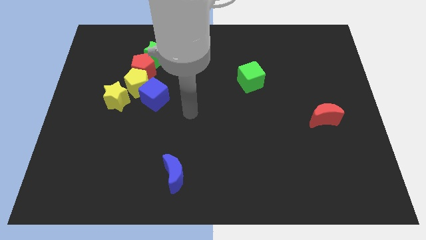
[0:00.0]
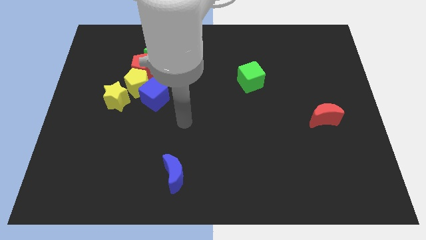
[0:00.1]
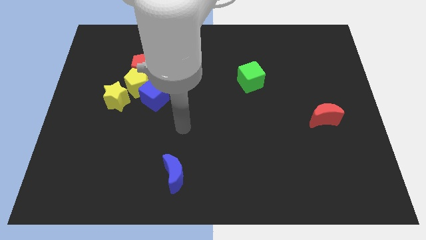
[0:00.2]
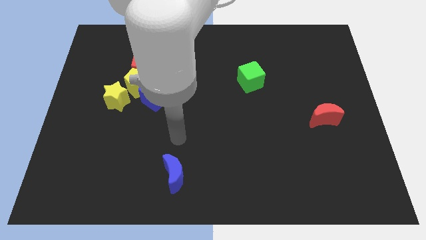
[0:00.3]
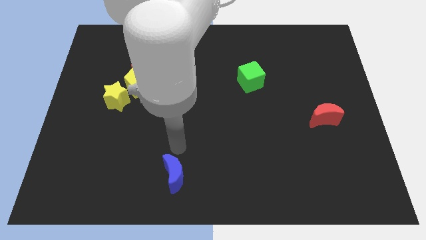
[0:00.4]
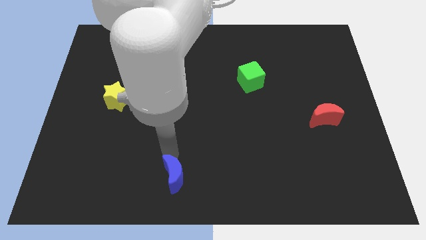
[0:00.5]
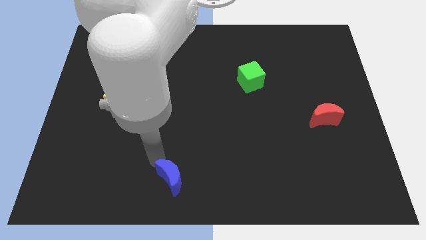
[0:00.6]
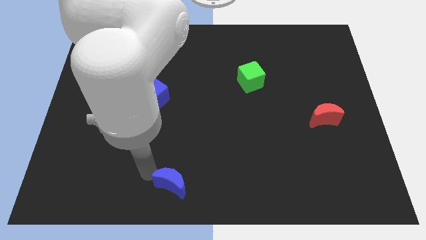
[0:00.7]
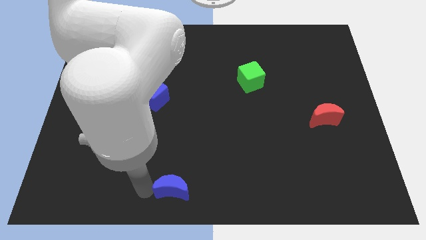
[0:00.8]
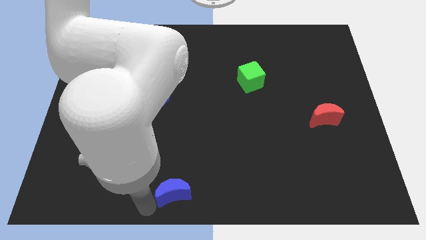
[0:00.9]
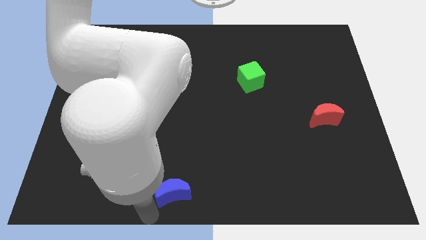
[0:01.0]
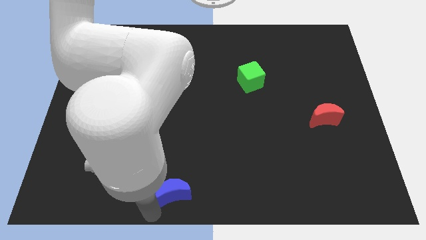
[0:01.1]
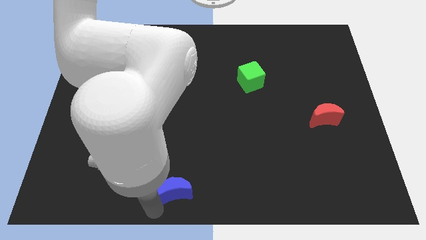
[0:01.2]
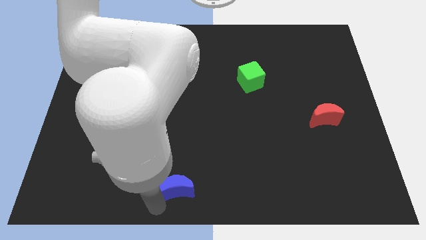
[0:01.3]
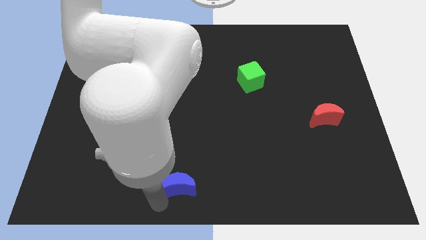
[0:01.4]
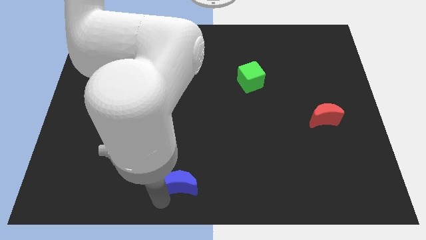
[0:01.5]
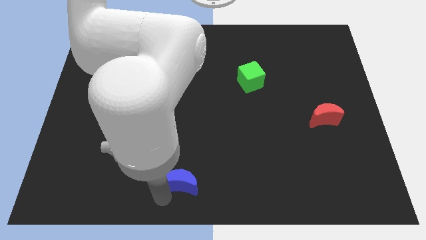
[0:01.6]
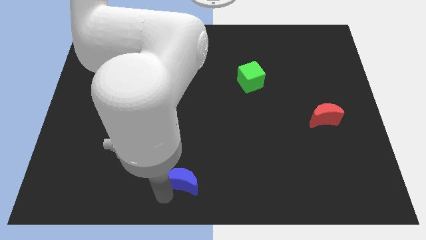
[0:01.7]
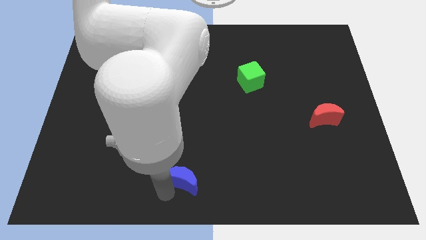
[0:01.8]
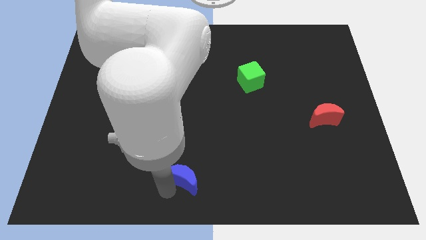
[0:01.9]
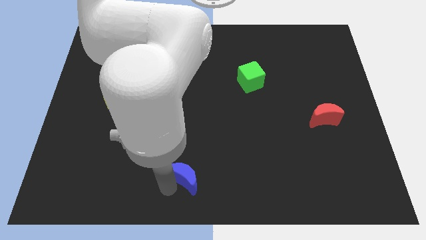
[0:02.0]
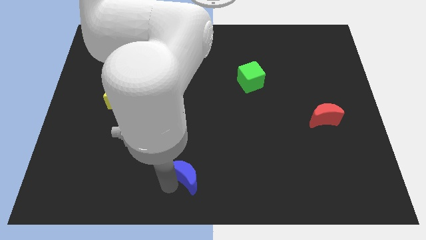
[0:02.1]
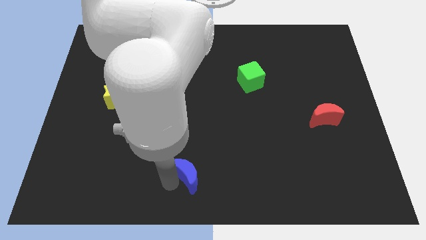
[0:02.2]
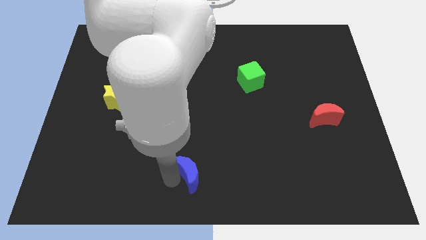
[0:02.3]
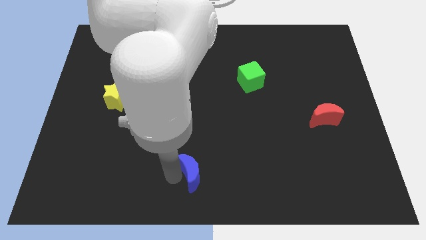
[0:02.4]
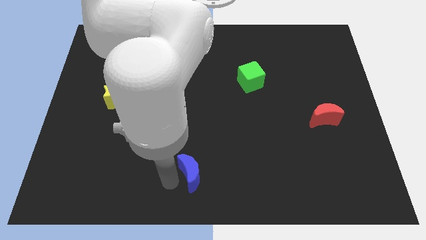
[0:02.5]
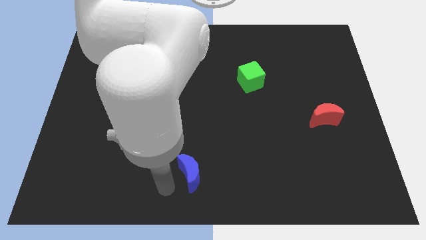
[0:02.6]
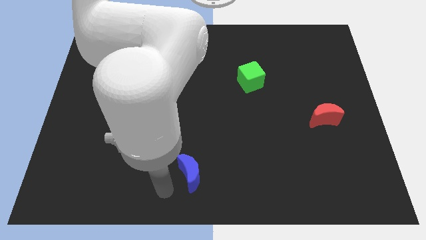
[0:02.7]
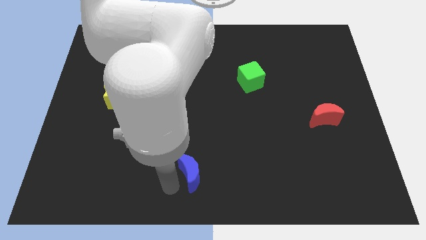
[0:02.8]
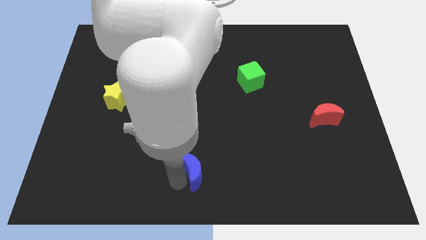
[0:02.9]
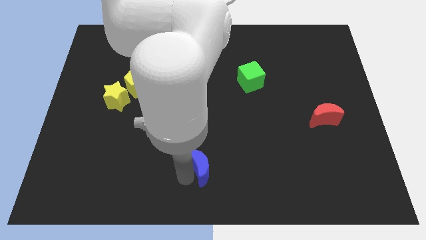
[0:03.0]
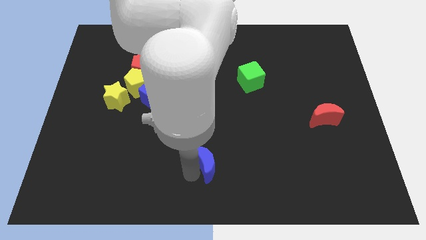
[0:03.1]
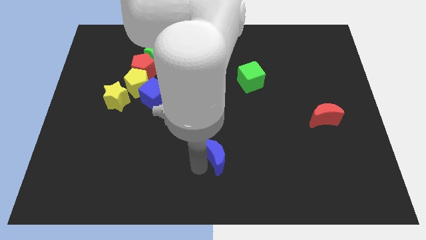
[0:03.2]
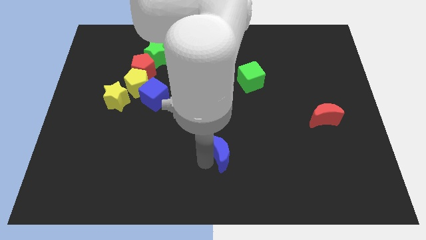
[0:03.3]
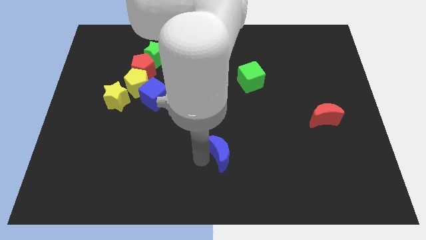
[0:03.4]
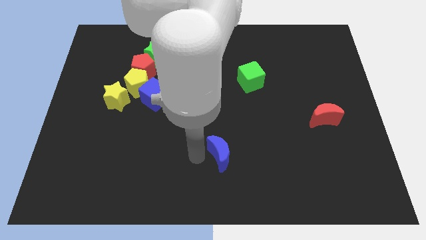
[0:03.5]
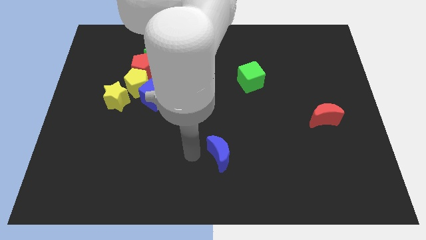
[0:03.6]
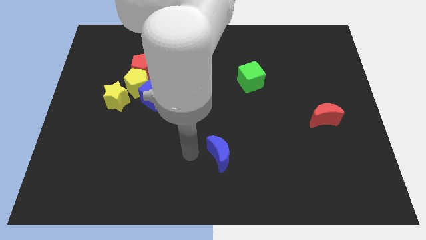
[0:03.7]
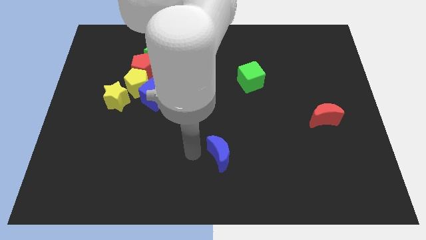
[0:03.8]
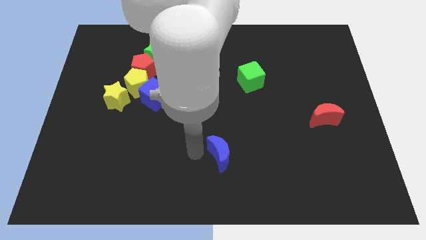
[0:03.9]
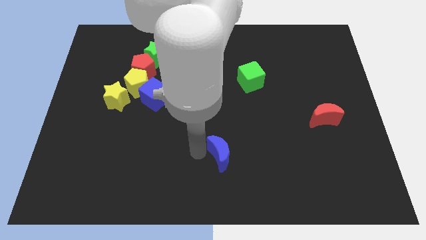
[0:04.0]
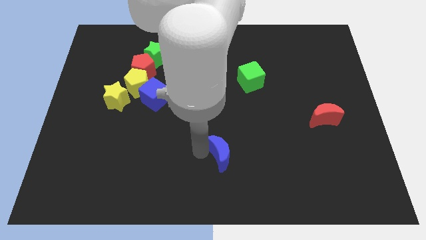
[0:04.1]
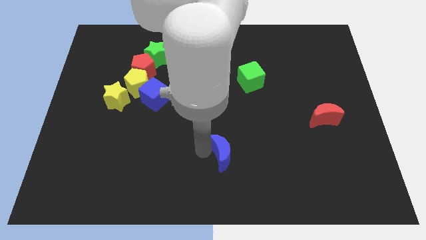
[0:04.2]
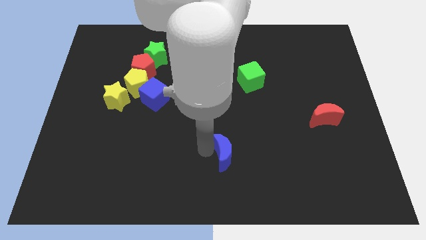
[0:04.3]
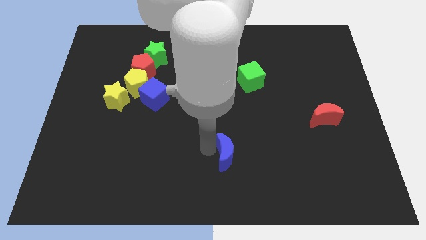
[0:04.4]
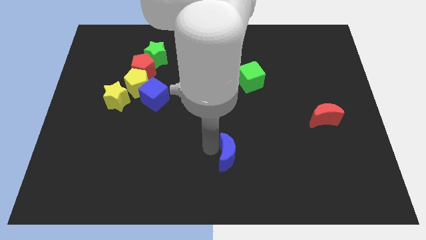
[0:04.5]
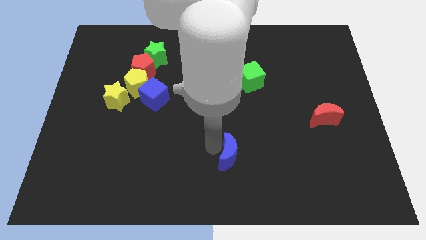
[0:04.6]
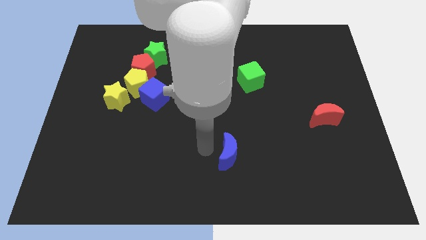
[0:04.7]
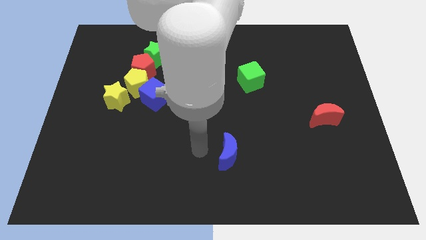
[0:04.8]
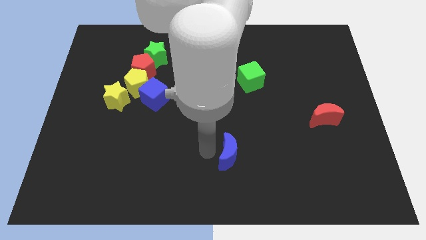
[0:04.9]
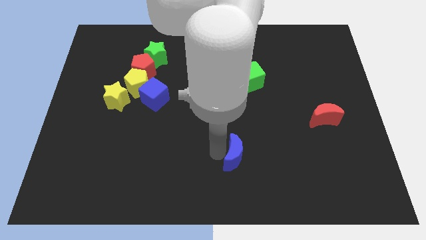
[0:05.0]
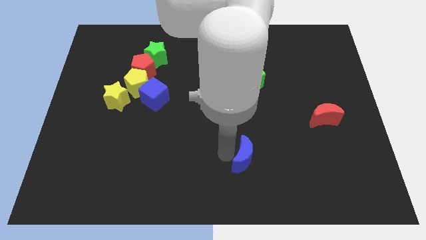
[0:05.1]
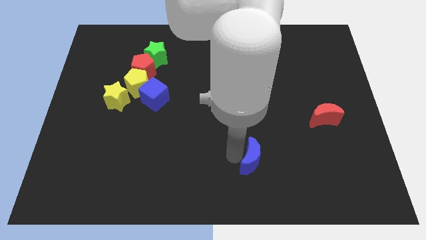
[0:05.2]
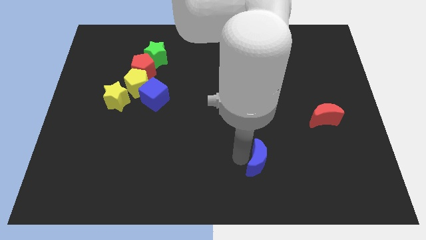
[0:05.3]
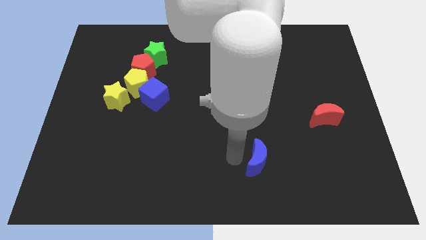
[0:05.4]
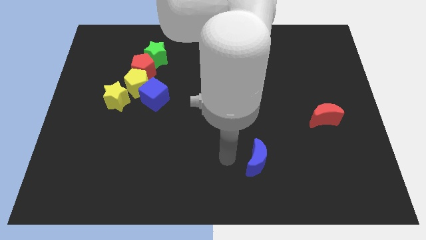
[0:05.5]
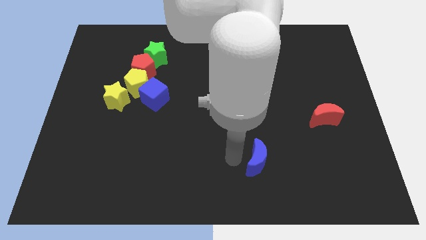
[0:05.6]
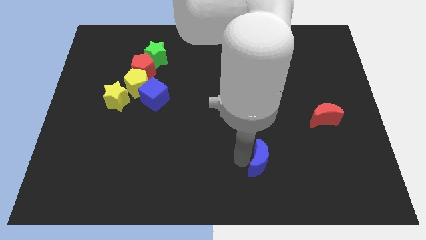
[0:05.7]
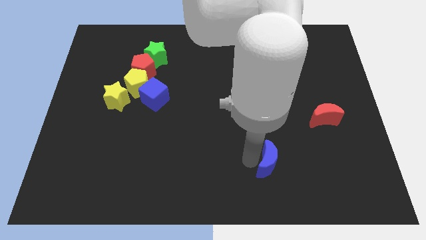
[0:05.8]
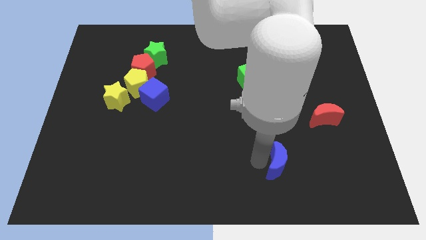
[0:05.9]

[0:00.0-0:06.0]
push the blue moon to the right

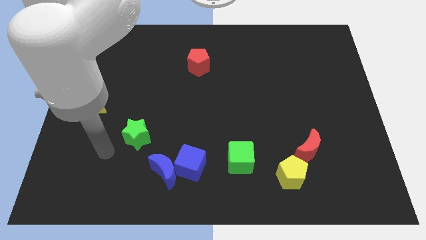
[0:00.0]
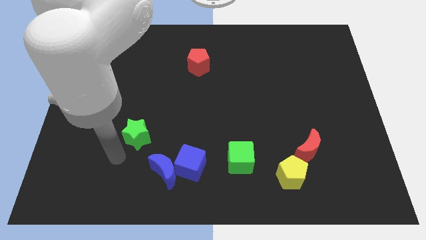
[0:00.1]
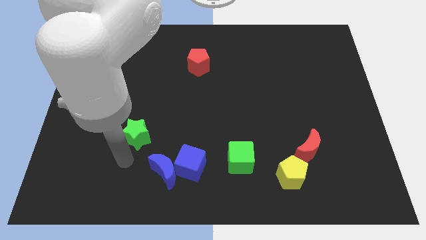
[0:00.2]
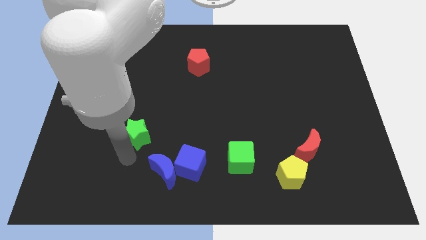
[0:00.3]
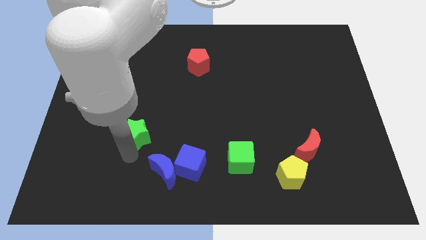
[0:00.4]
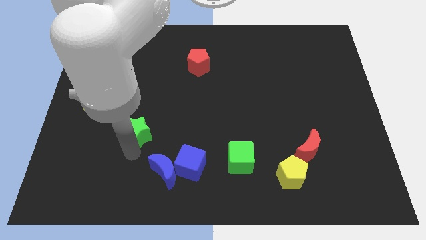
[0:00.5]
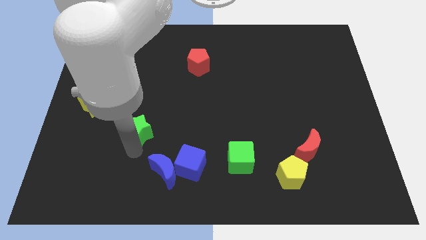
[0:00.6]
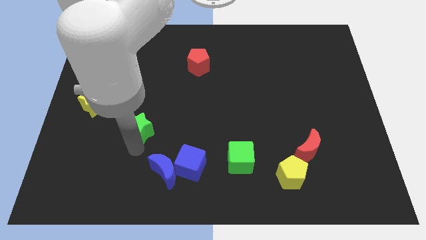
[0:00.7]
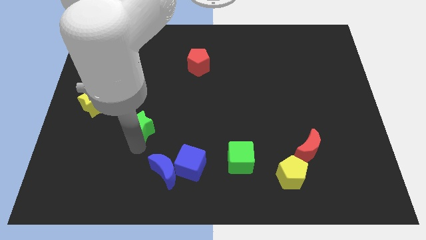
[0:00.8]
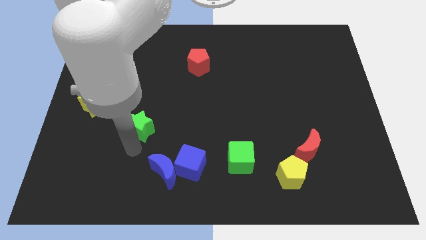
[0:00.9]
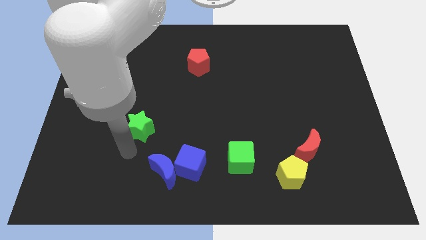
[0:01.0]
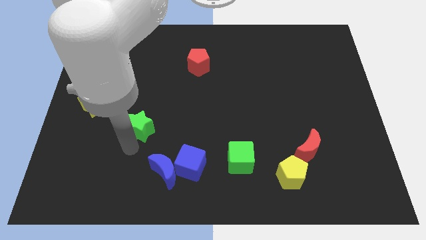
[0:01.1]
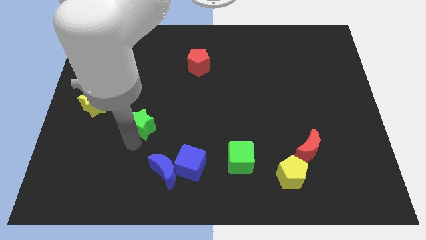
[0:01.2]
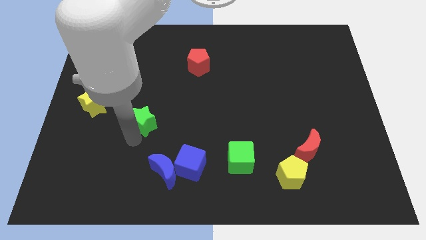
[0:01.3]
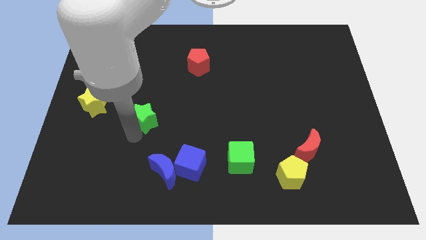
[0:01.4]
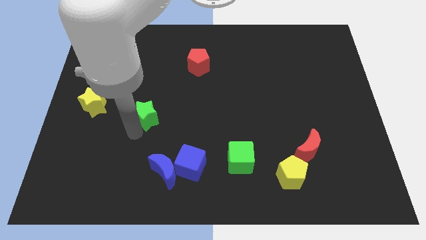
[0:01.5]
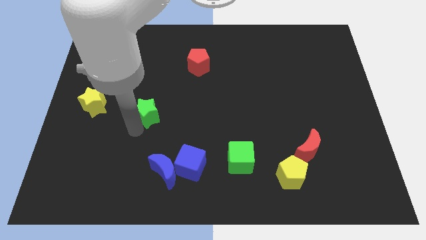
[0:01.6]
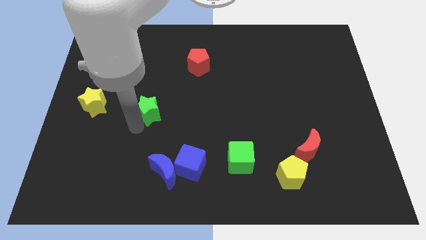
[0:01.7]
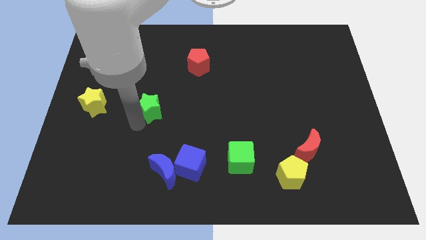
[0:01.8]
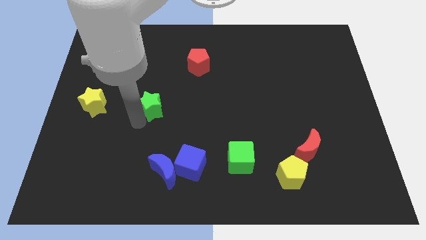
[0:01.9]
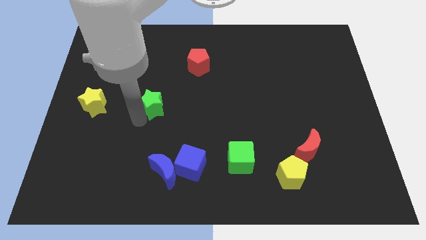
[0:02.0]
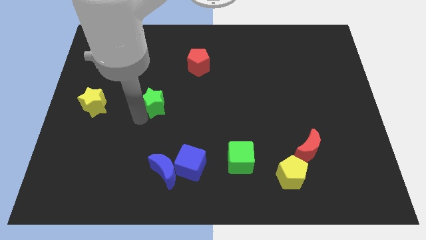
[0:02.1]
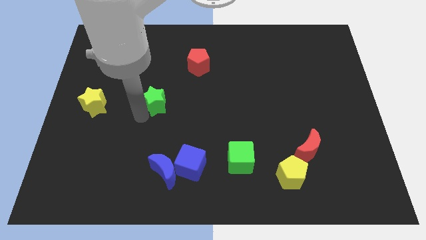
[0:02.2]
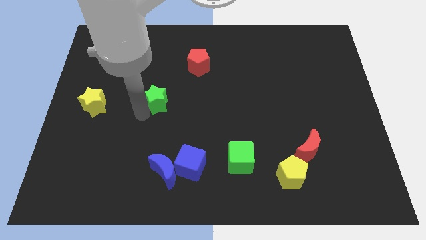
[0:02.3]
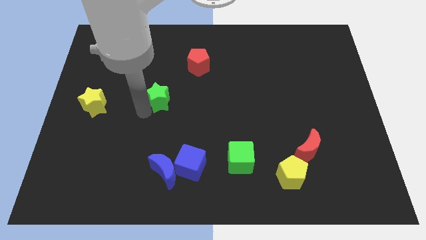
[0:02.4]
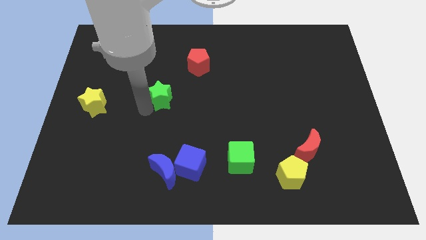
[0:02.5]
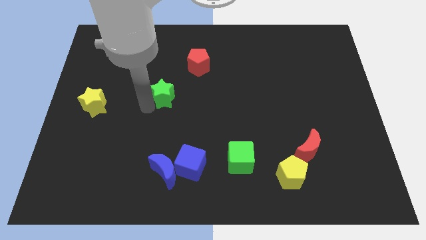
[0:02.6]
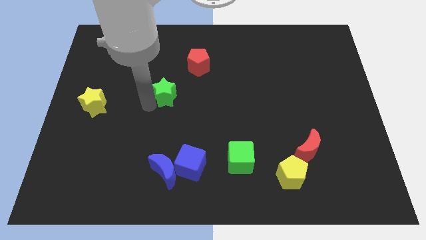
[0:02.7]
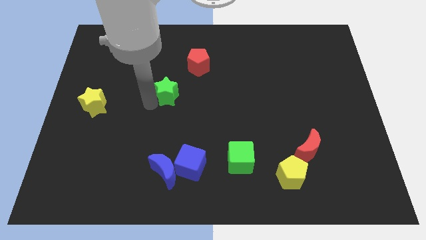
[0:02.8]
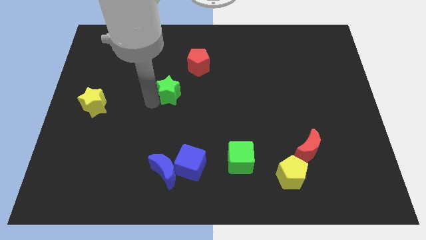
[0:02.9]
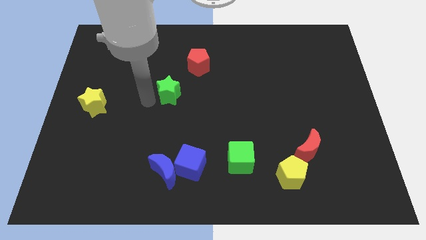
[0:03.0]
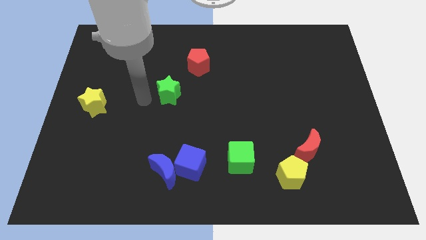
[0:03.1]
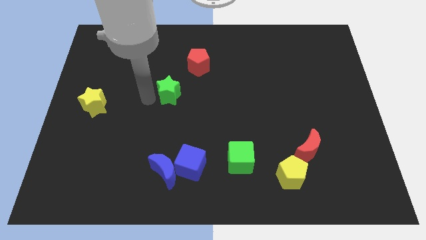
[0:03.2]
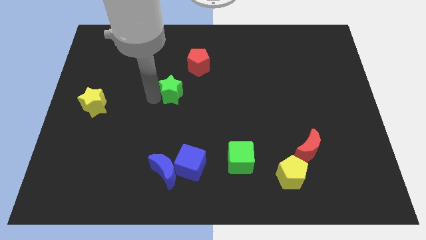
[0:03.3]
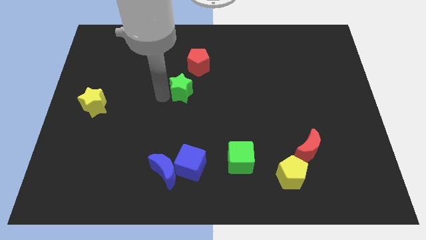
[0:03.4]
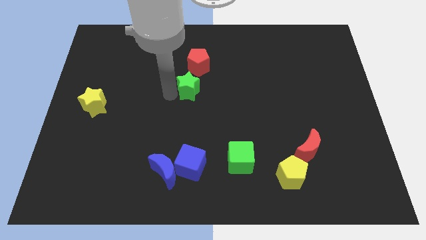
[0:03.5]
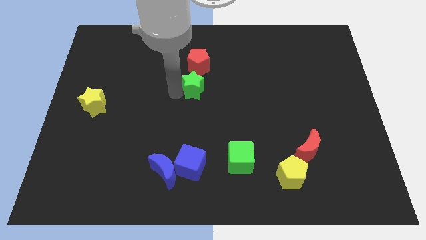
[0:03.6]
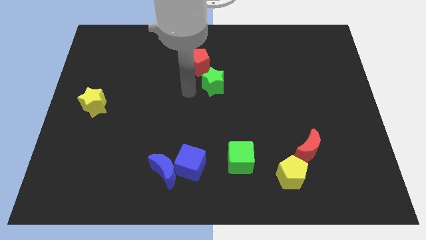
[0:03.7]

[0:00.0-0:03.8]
move the green star upwards and to the right diagonally
